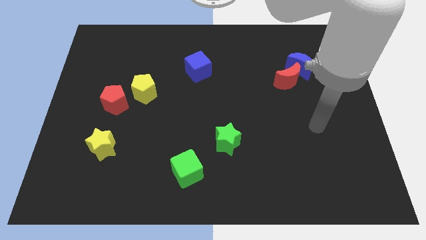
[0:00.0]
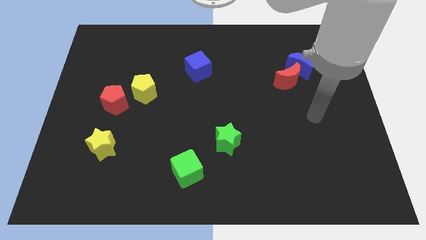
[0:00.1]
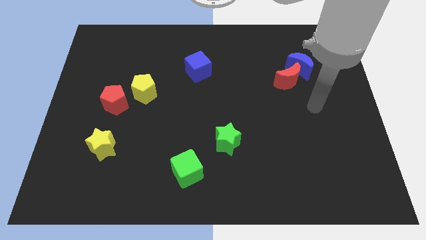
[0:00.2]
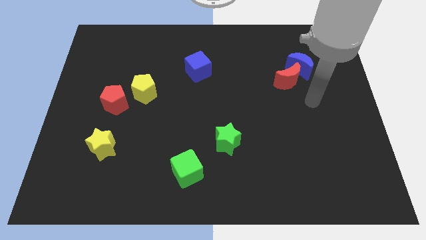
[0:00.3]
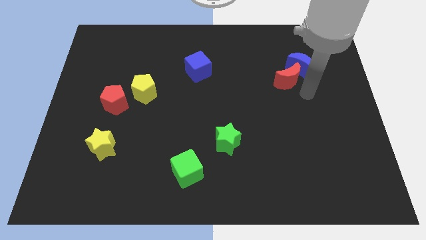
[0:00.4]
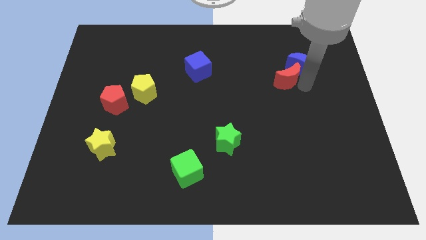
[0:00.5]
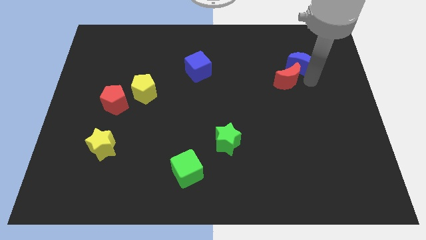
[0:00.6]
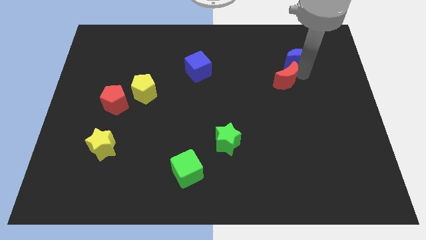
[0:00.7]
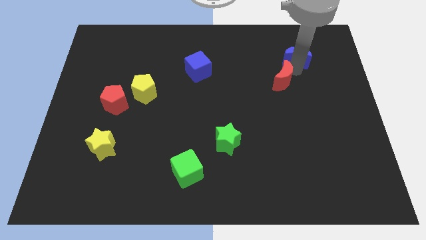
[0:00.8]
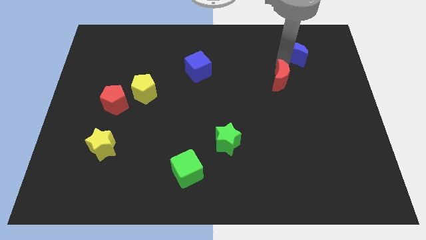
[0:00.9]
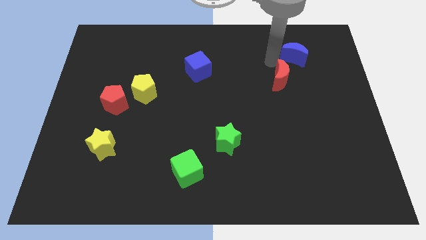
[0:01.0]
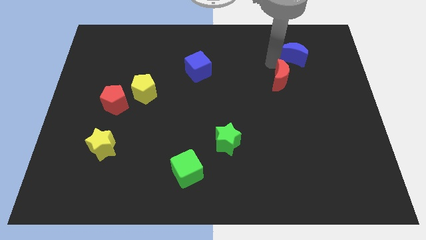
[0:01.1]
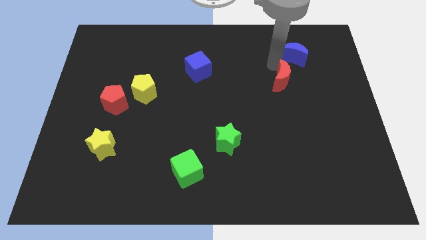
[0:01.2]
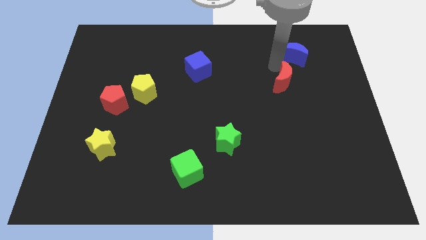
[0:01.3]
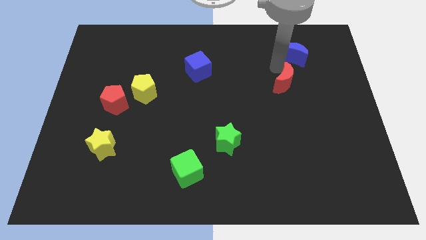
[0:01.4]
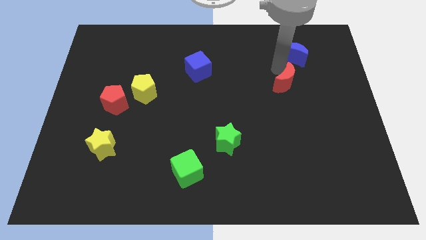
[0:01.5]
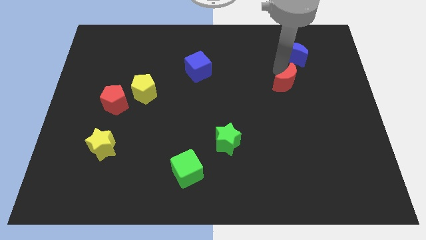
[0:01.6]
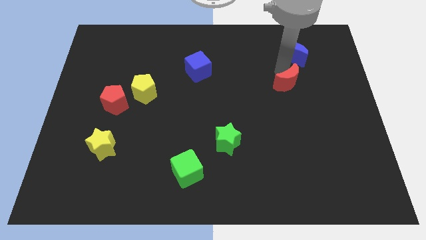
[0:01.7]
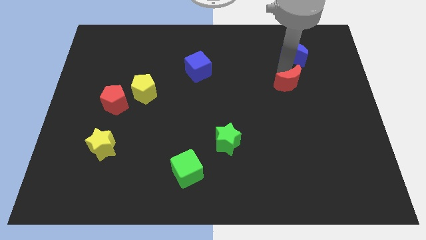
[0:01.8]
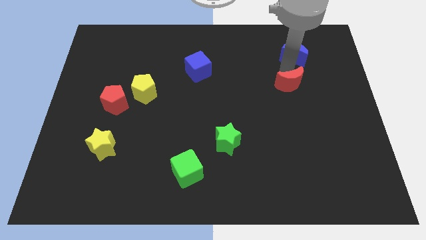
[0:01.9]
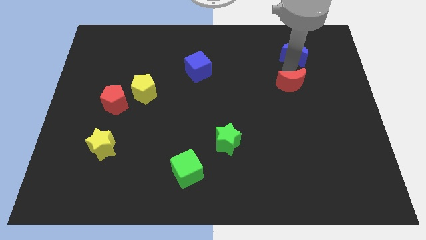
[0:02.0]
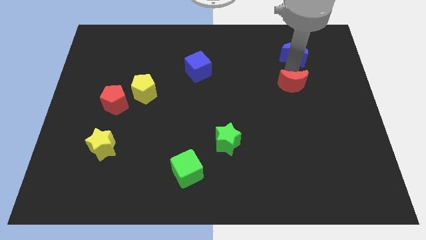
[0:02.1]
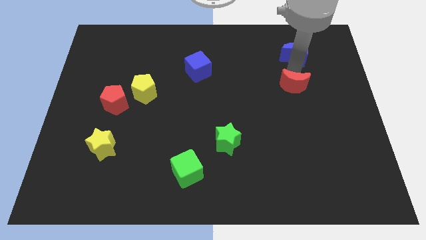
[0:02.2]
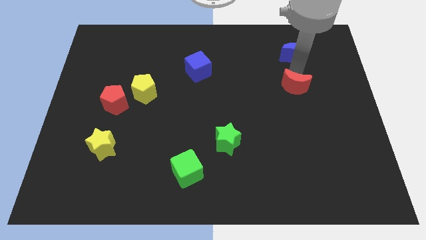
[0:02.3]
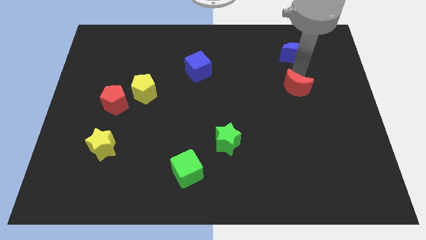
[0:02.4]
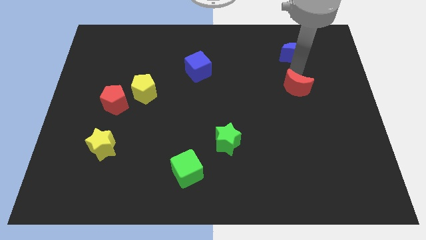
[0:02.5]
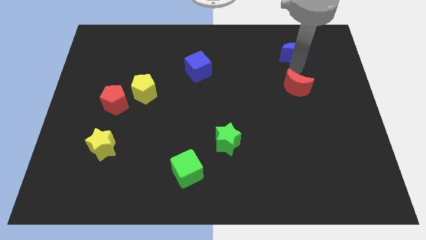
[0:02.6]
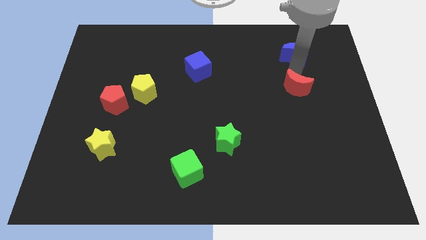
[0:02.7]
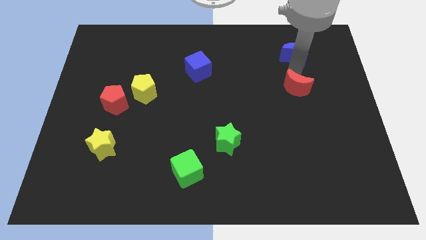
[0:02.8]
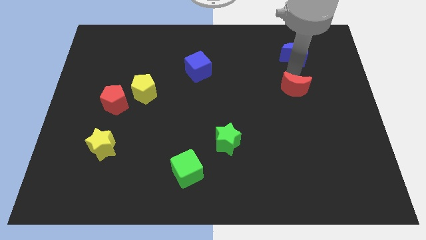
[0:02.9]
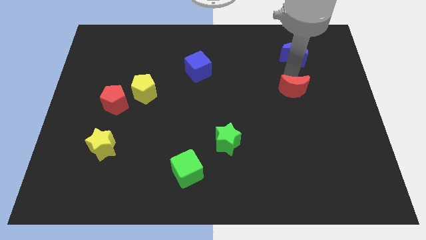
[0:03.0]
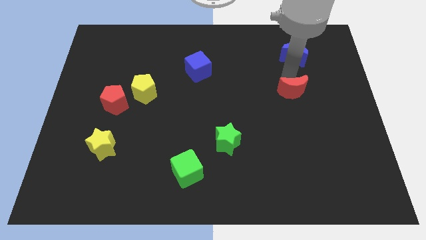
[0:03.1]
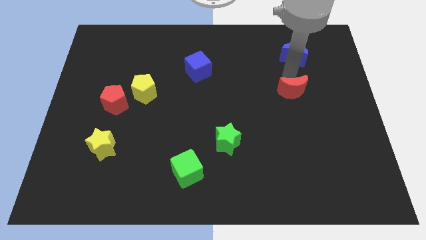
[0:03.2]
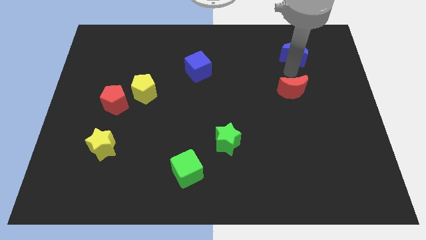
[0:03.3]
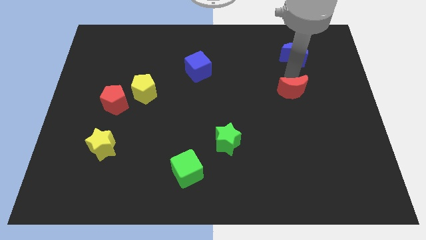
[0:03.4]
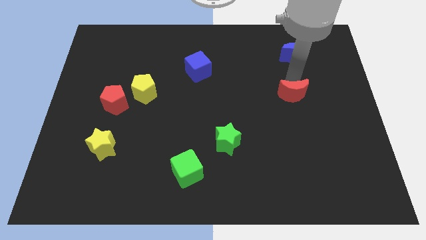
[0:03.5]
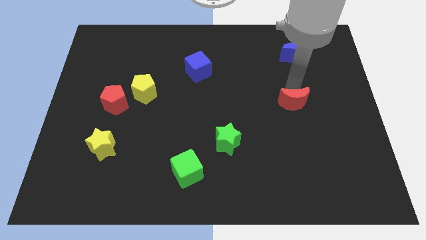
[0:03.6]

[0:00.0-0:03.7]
slightly move the red moon downwards

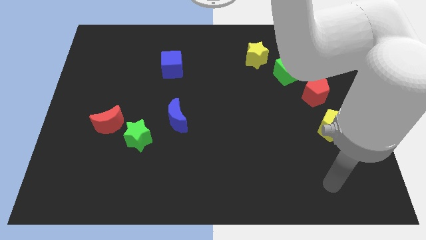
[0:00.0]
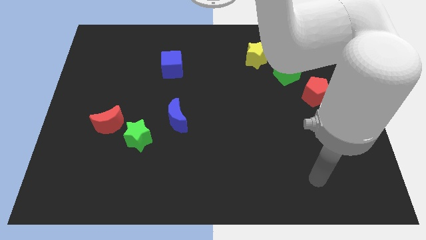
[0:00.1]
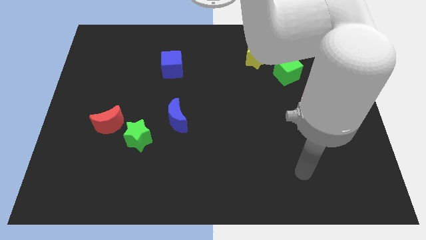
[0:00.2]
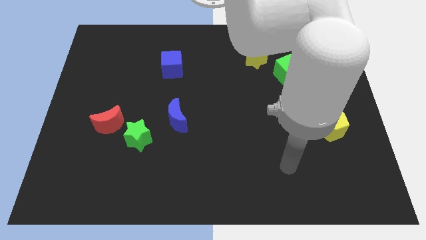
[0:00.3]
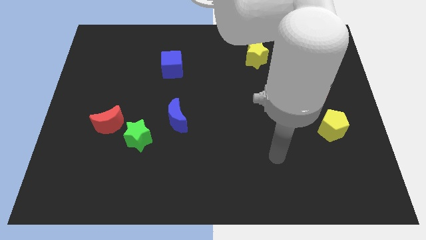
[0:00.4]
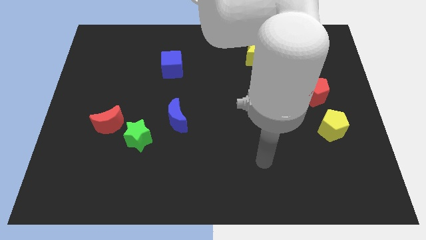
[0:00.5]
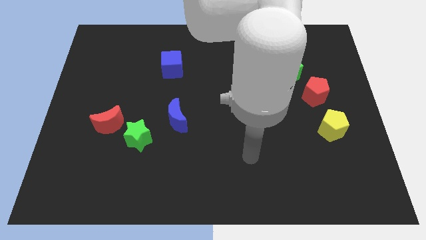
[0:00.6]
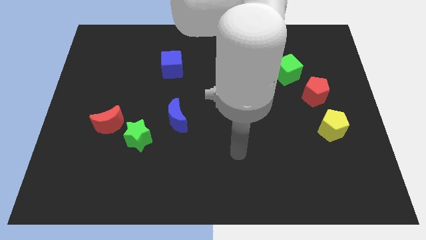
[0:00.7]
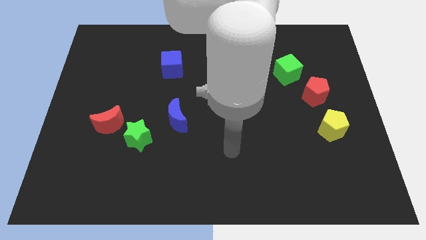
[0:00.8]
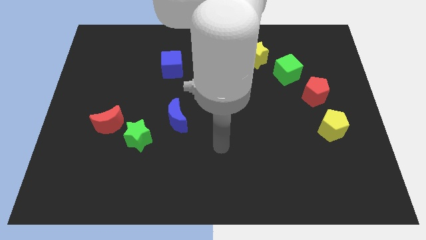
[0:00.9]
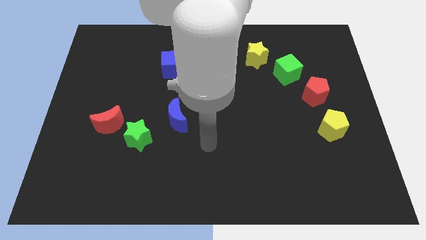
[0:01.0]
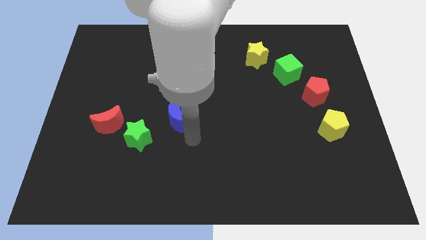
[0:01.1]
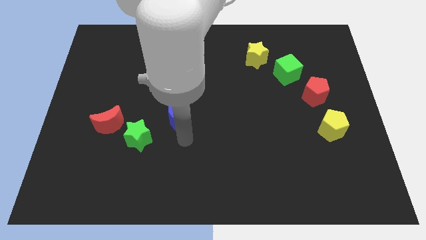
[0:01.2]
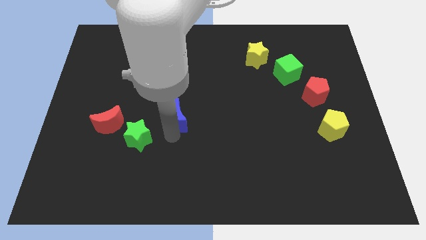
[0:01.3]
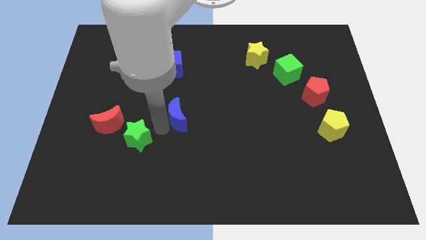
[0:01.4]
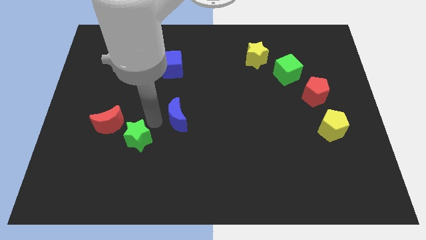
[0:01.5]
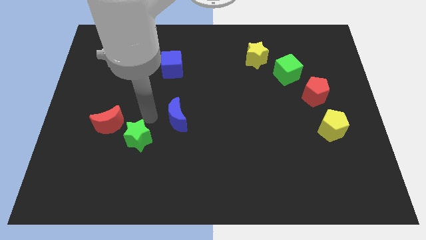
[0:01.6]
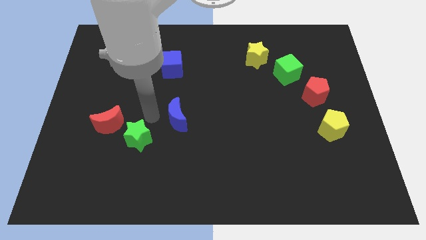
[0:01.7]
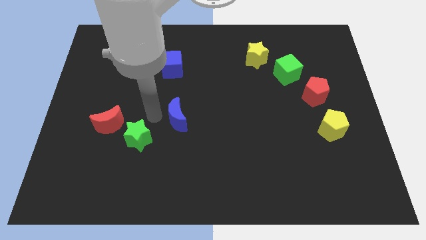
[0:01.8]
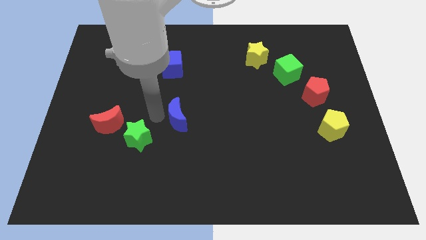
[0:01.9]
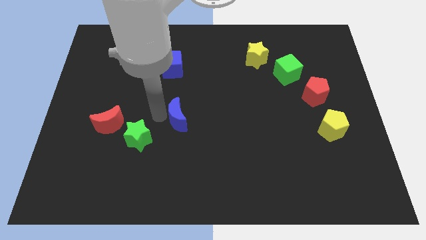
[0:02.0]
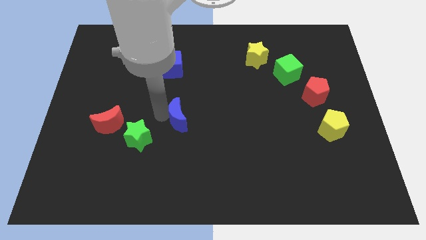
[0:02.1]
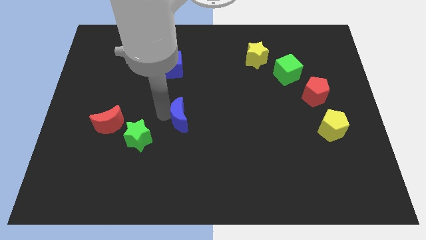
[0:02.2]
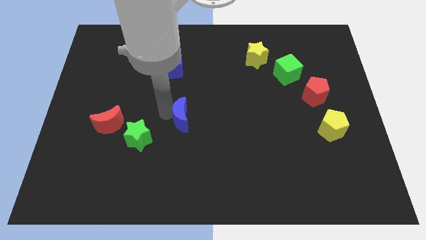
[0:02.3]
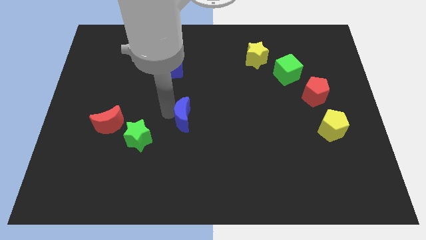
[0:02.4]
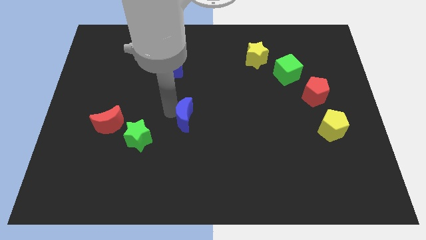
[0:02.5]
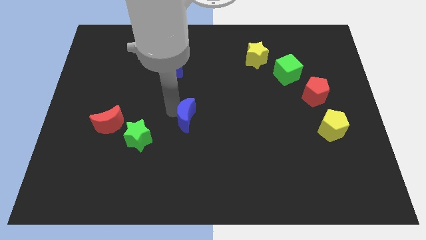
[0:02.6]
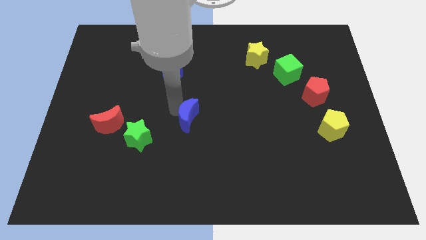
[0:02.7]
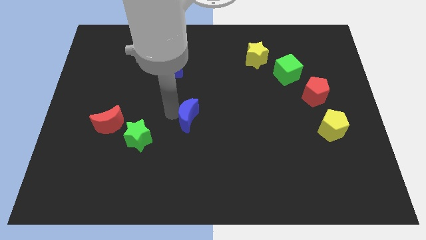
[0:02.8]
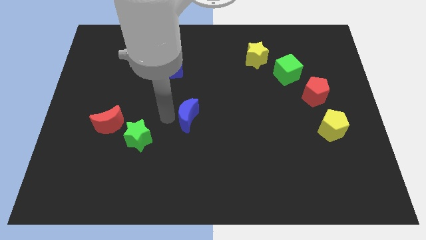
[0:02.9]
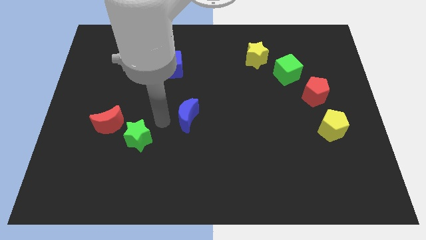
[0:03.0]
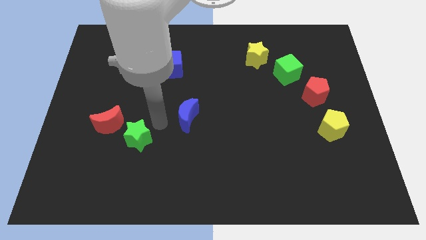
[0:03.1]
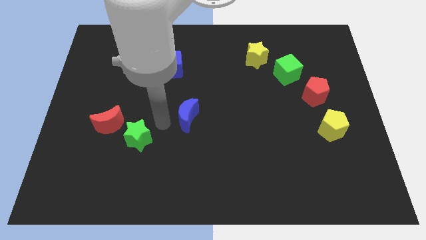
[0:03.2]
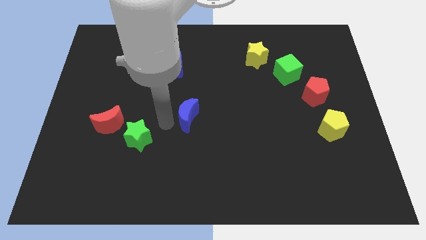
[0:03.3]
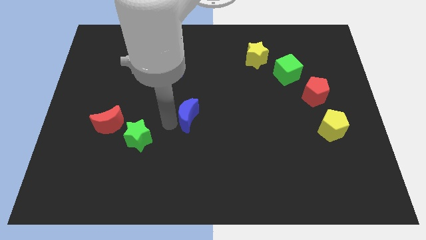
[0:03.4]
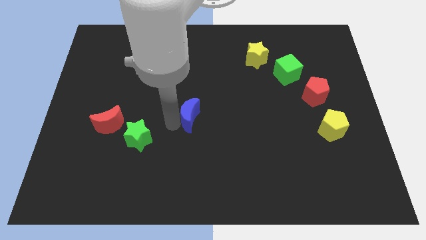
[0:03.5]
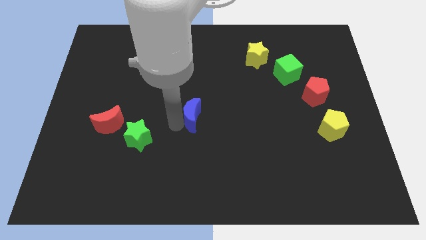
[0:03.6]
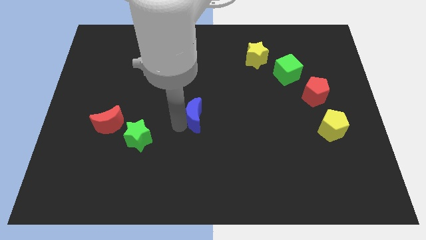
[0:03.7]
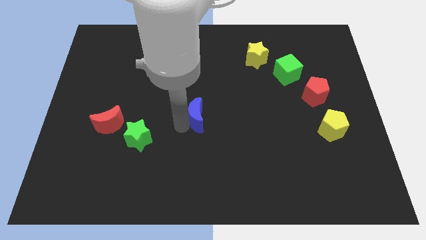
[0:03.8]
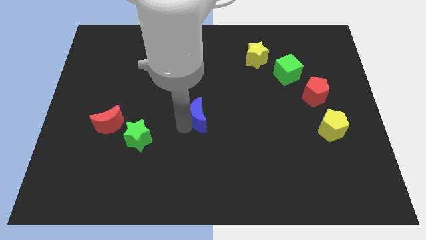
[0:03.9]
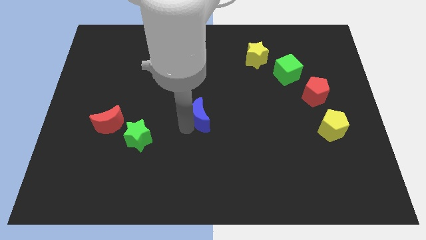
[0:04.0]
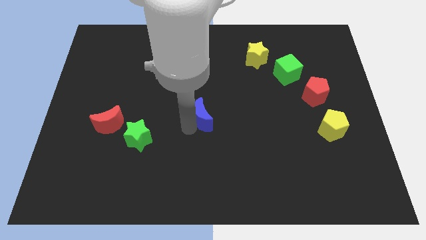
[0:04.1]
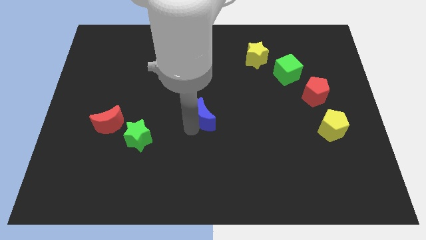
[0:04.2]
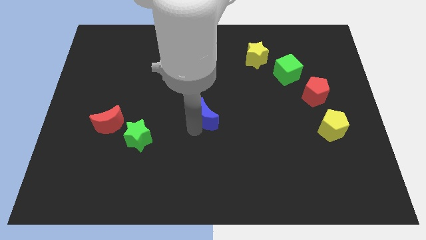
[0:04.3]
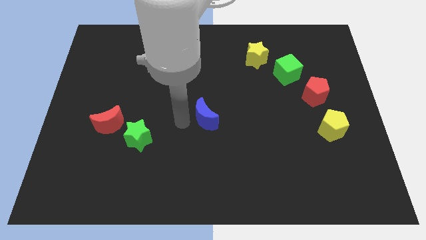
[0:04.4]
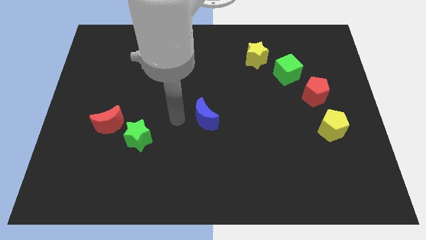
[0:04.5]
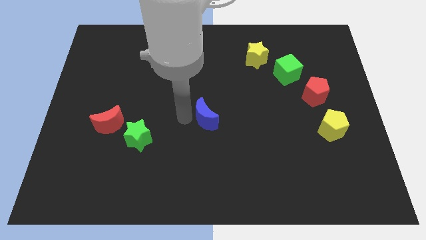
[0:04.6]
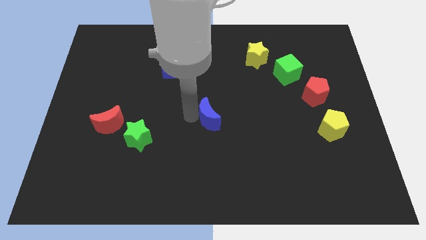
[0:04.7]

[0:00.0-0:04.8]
slightly slide the blue moon to the right
